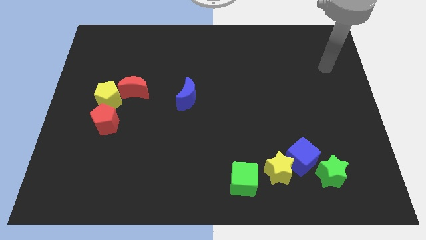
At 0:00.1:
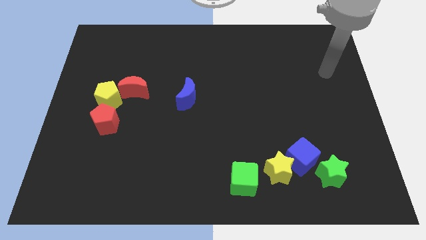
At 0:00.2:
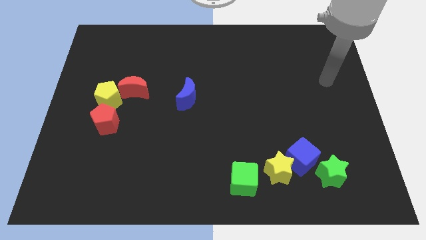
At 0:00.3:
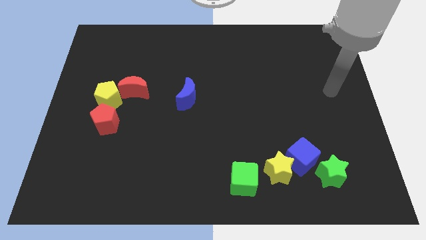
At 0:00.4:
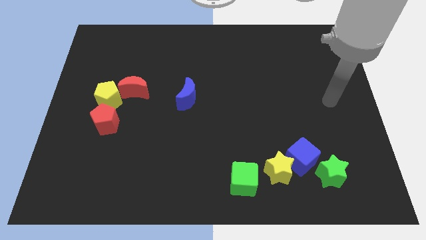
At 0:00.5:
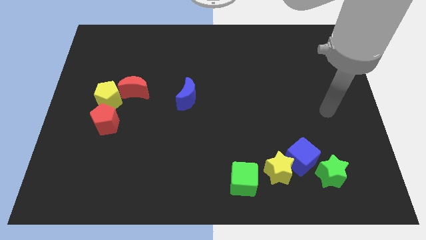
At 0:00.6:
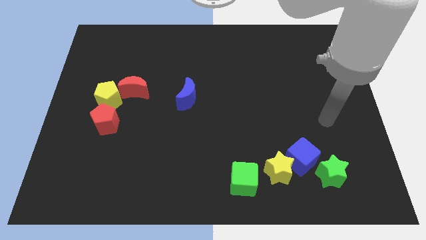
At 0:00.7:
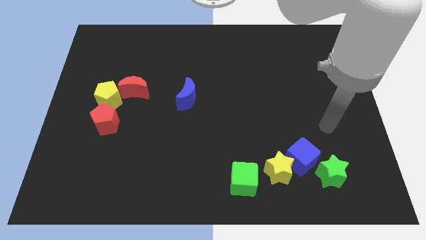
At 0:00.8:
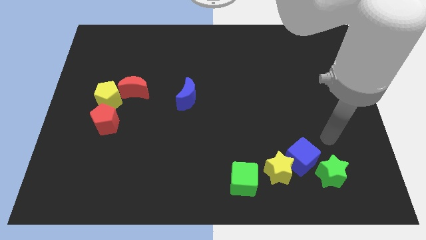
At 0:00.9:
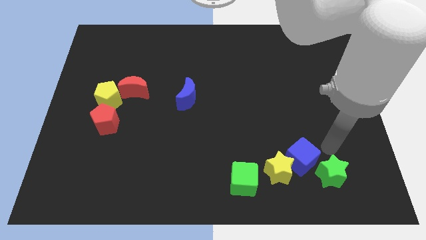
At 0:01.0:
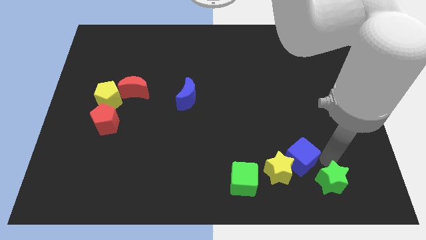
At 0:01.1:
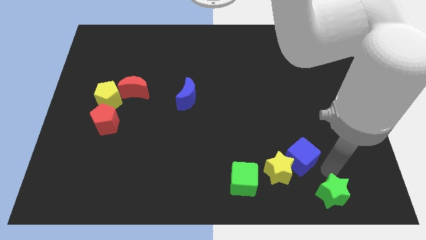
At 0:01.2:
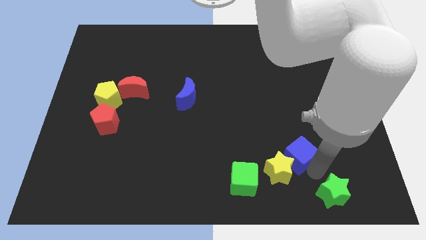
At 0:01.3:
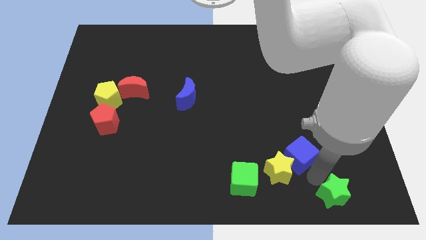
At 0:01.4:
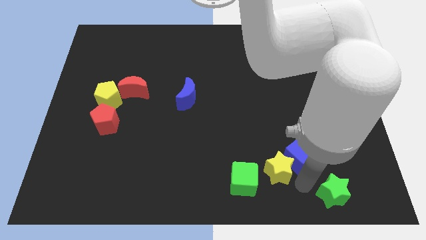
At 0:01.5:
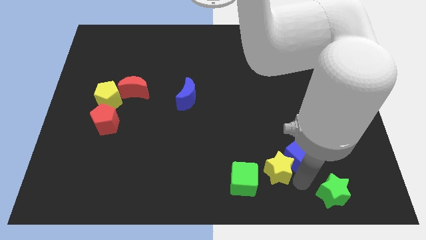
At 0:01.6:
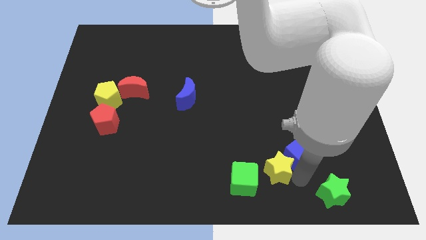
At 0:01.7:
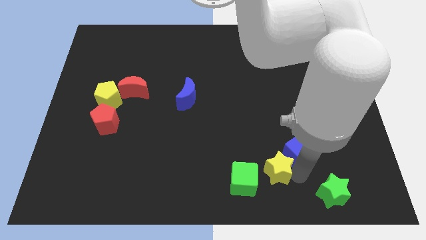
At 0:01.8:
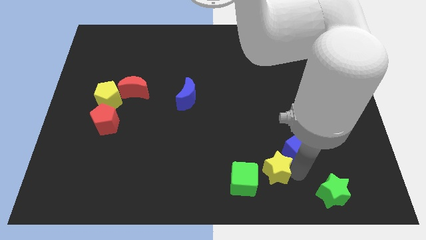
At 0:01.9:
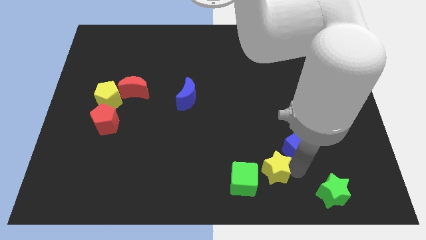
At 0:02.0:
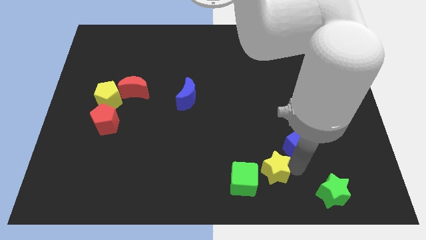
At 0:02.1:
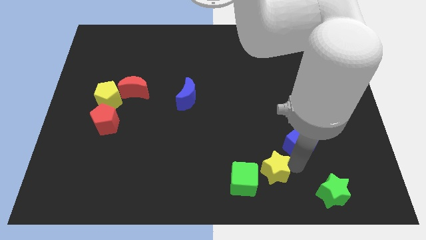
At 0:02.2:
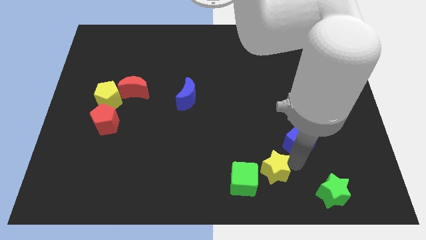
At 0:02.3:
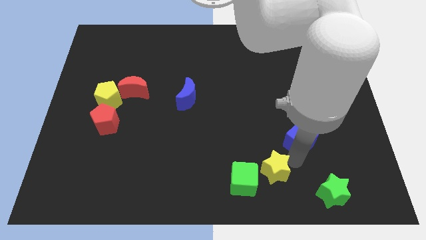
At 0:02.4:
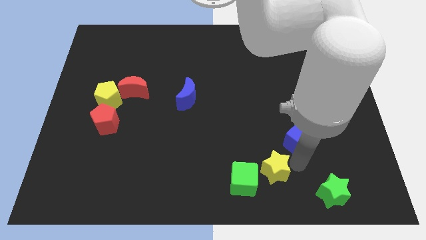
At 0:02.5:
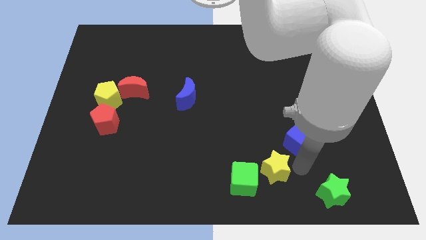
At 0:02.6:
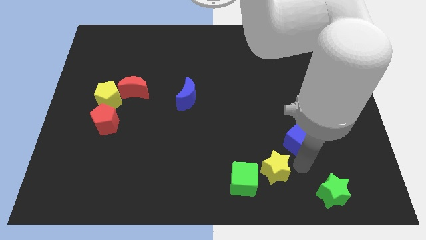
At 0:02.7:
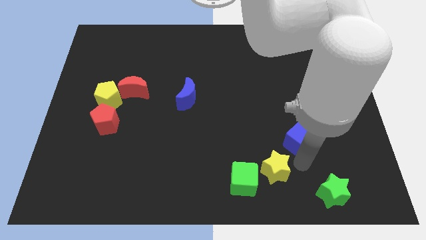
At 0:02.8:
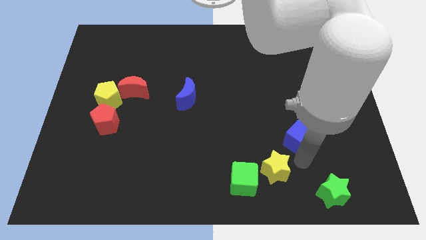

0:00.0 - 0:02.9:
separate the blue cube from the yellow star and green star

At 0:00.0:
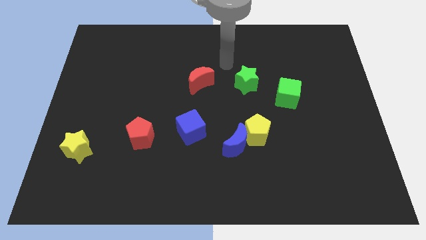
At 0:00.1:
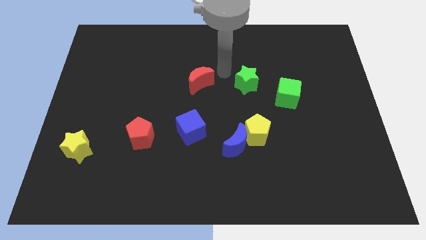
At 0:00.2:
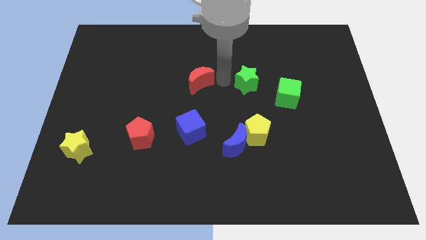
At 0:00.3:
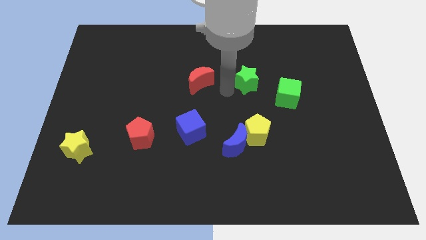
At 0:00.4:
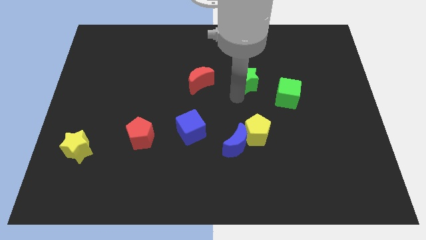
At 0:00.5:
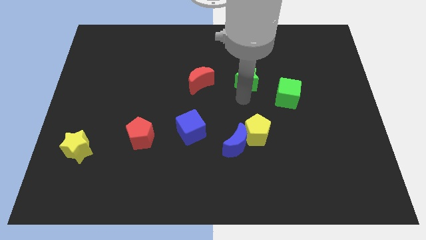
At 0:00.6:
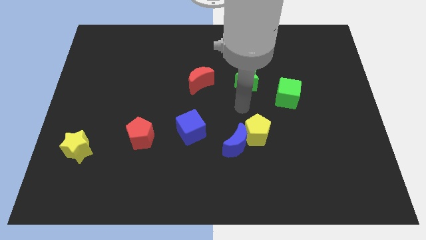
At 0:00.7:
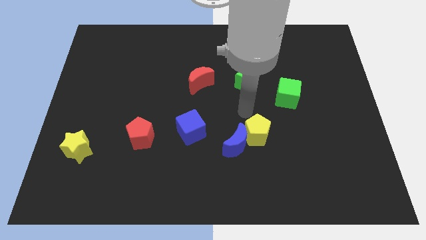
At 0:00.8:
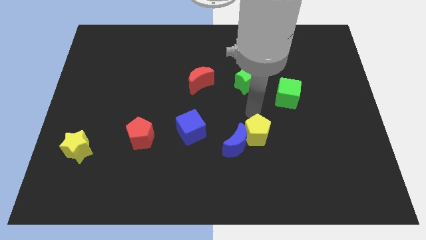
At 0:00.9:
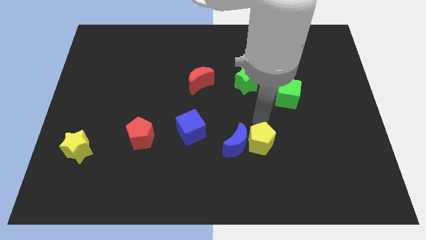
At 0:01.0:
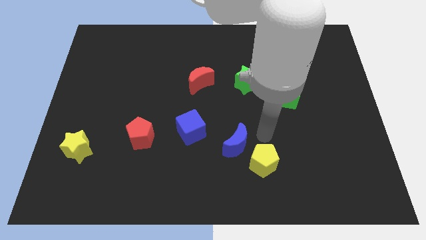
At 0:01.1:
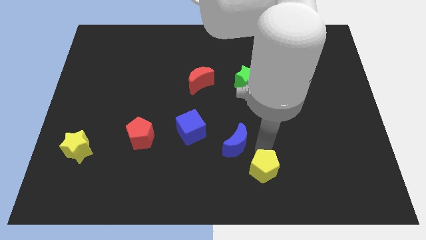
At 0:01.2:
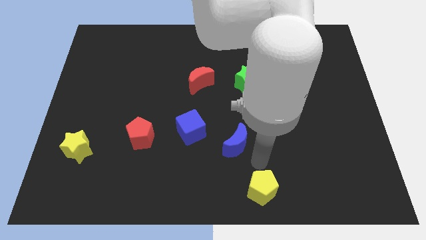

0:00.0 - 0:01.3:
pull the blue moon apart from the yellow pentagon

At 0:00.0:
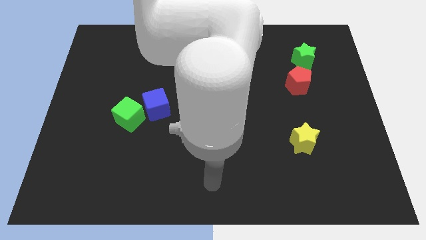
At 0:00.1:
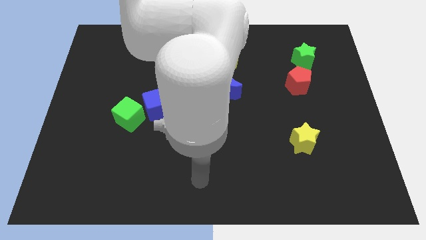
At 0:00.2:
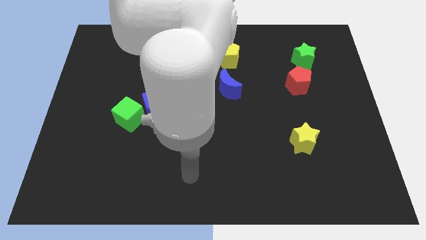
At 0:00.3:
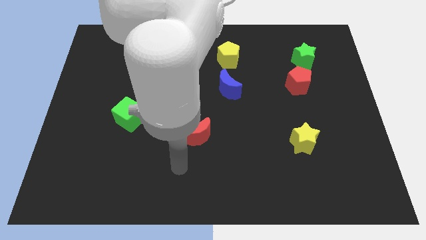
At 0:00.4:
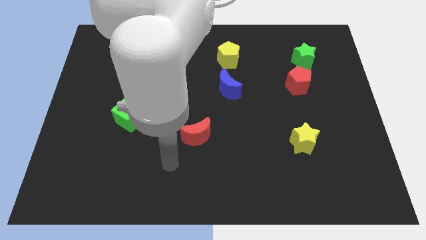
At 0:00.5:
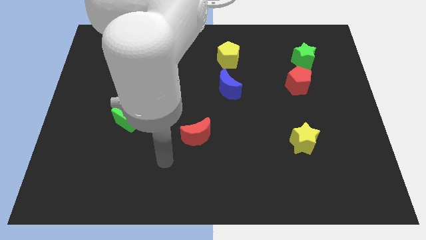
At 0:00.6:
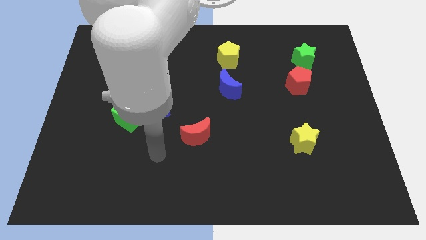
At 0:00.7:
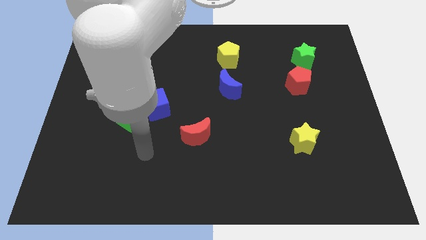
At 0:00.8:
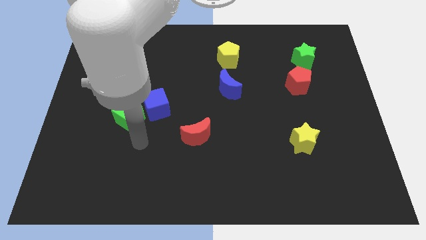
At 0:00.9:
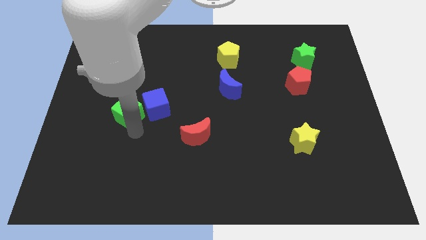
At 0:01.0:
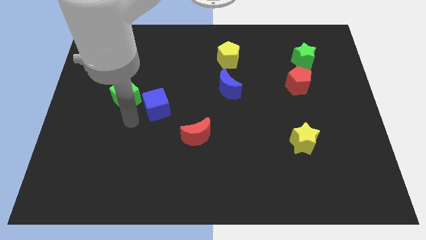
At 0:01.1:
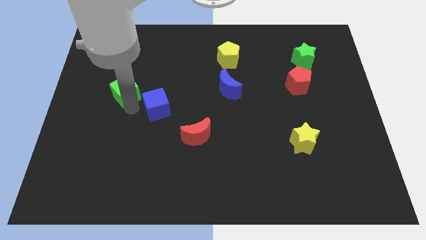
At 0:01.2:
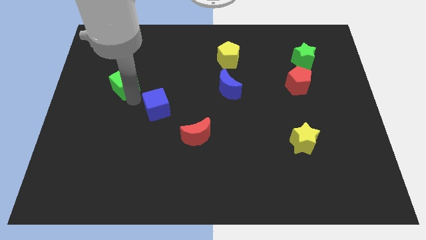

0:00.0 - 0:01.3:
move the blue cube away from the green cube

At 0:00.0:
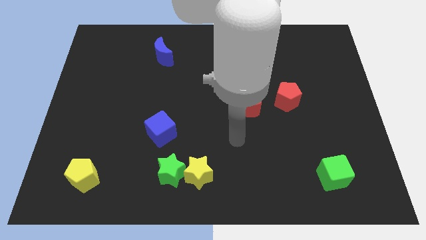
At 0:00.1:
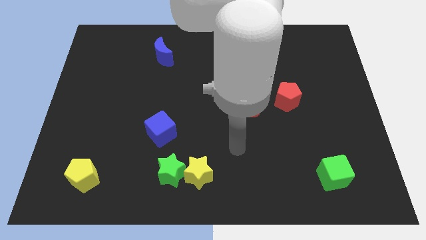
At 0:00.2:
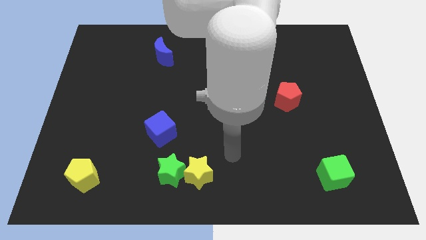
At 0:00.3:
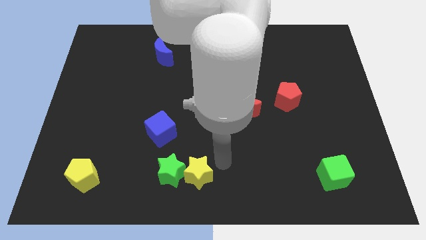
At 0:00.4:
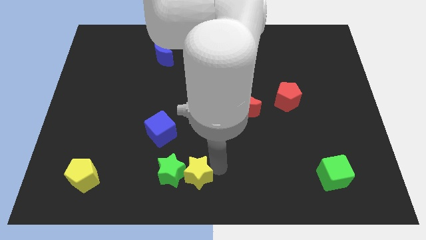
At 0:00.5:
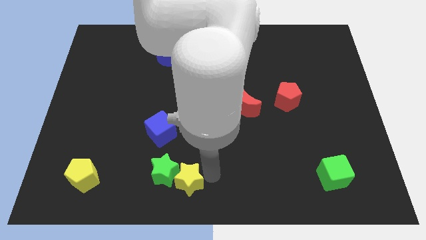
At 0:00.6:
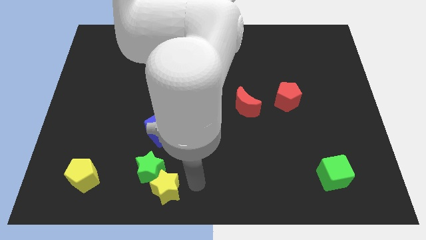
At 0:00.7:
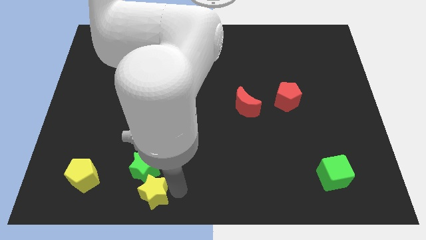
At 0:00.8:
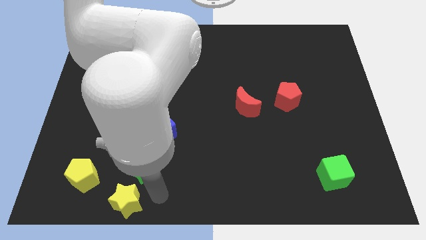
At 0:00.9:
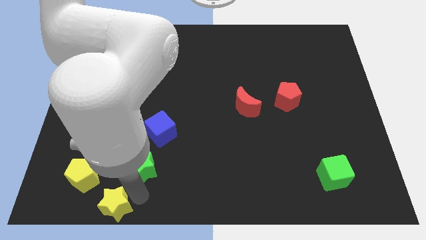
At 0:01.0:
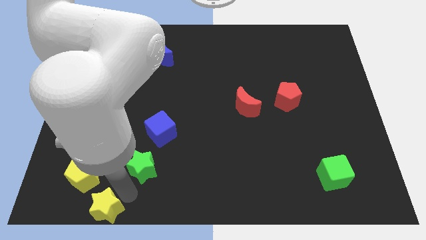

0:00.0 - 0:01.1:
pull the green star apart from the yellow star

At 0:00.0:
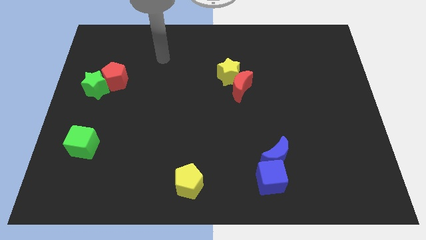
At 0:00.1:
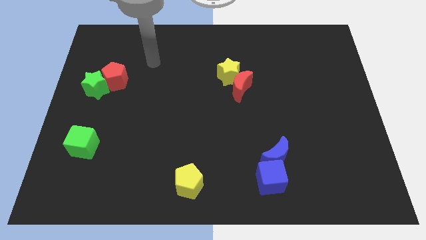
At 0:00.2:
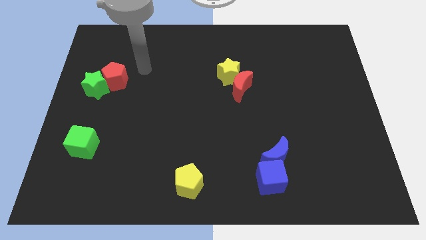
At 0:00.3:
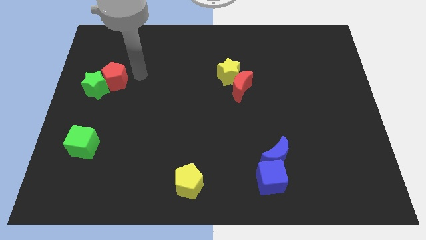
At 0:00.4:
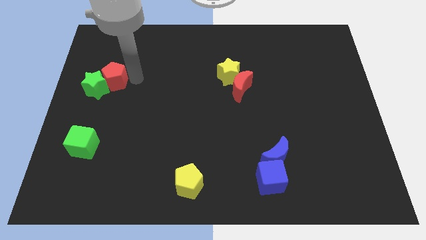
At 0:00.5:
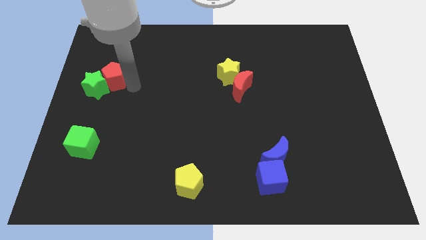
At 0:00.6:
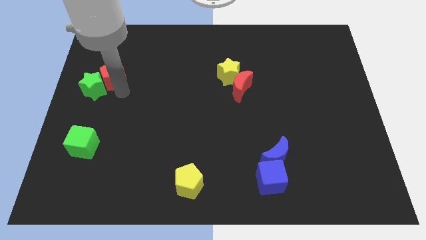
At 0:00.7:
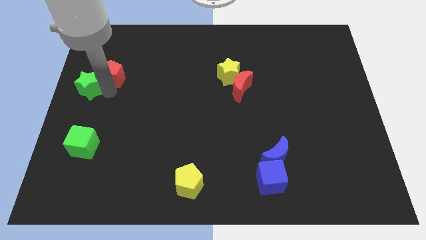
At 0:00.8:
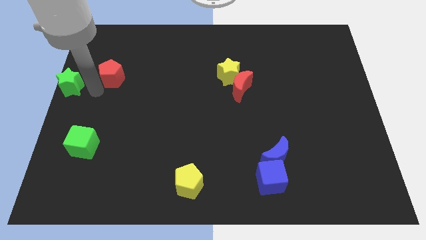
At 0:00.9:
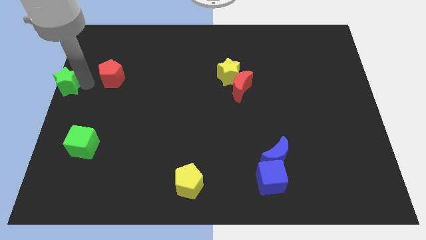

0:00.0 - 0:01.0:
separate the red pentagon from the green star

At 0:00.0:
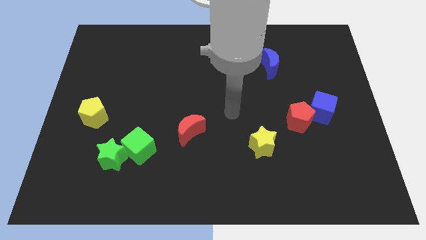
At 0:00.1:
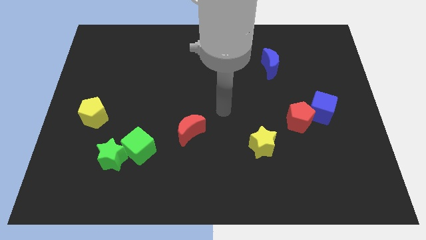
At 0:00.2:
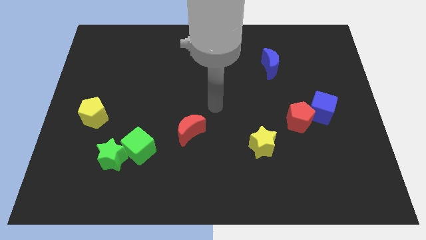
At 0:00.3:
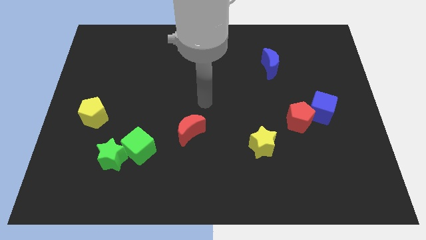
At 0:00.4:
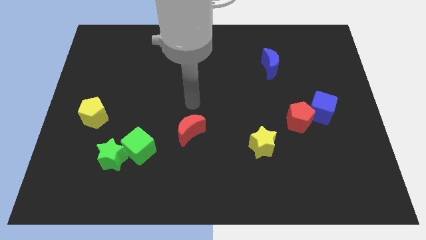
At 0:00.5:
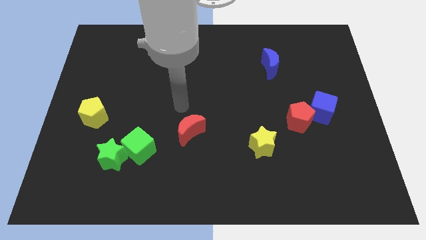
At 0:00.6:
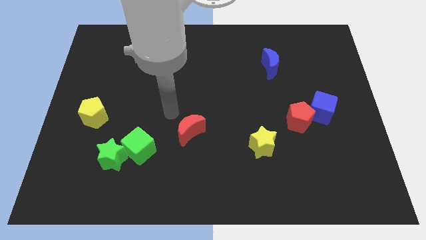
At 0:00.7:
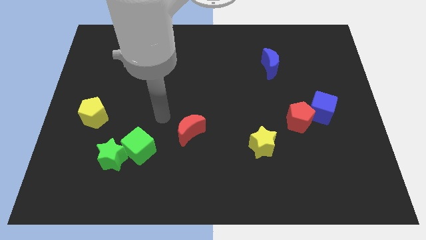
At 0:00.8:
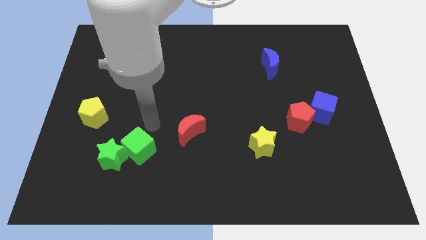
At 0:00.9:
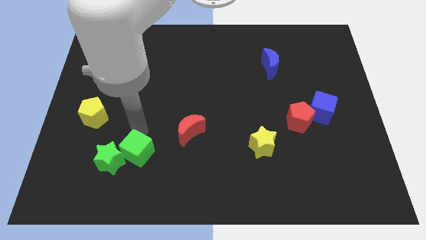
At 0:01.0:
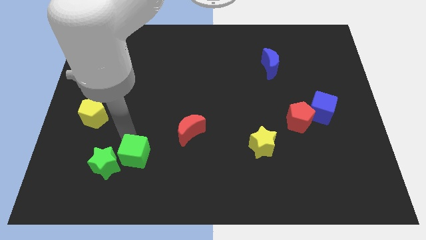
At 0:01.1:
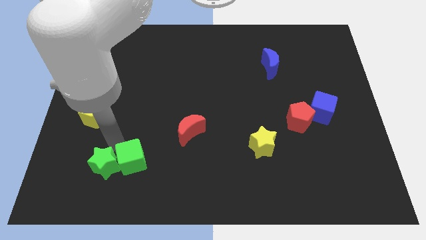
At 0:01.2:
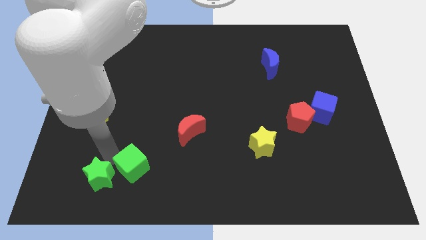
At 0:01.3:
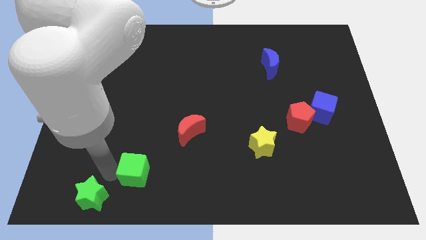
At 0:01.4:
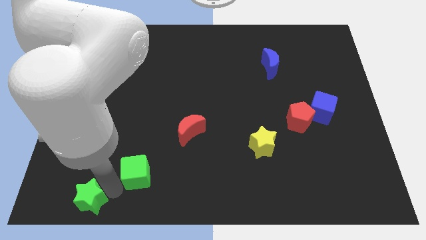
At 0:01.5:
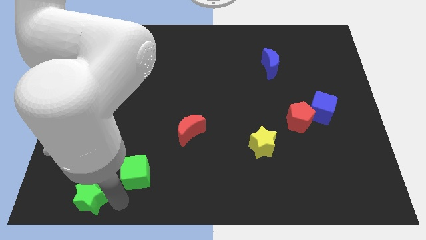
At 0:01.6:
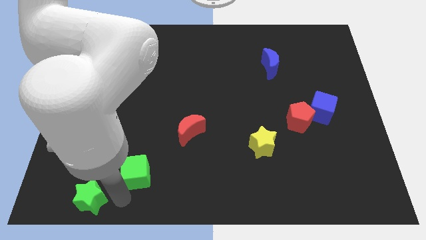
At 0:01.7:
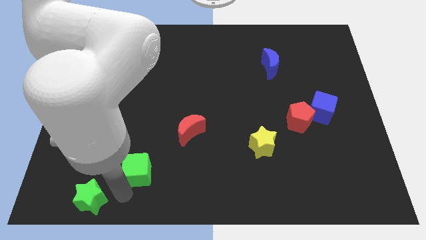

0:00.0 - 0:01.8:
separate the green cube from the green star

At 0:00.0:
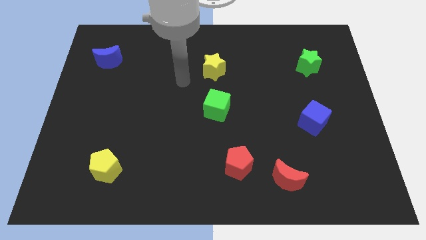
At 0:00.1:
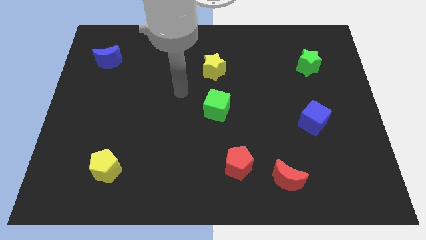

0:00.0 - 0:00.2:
pull the red moon apart from the red pentagon
